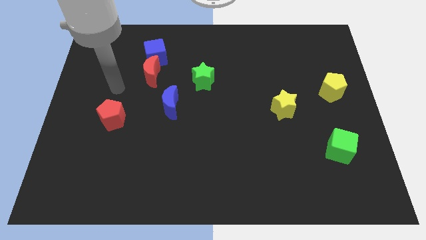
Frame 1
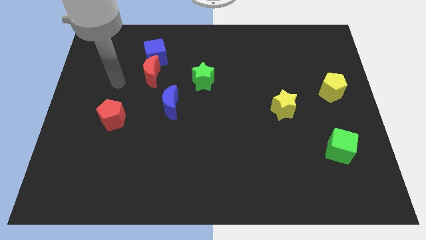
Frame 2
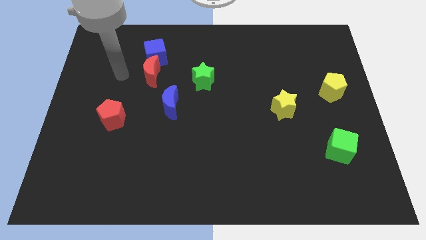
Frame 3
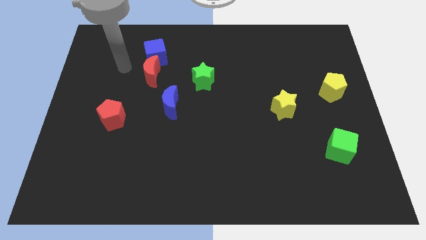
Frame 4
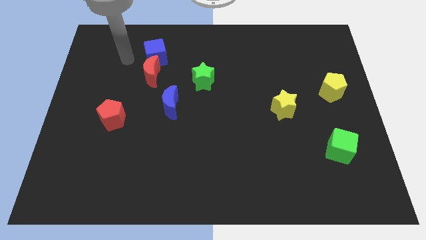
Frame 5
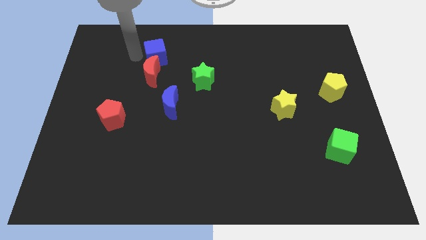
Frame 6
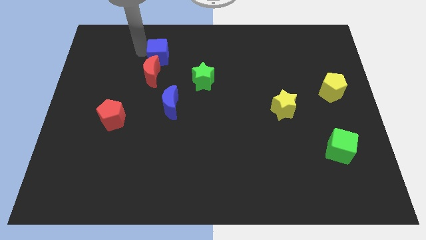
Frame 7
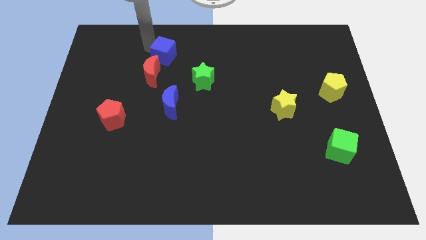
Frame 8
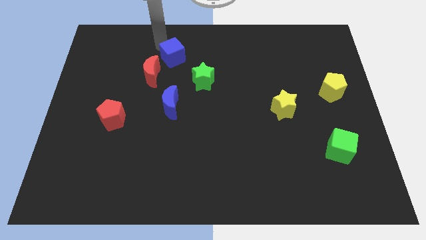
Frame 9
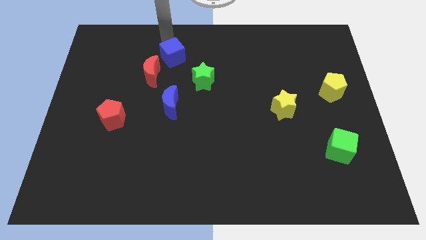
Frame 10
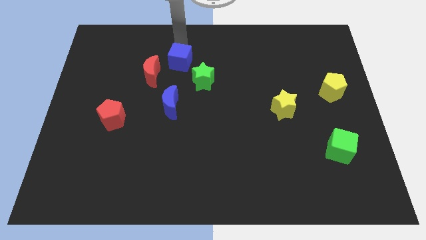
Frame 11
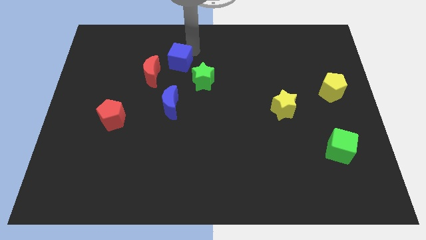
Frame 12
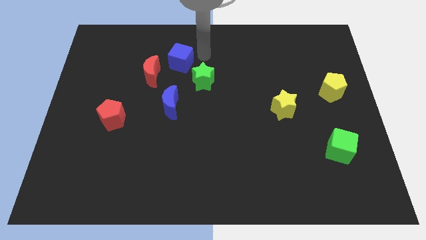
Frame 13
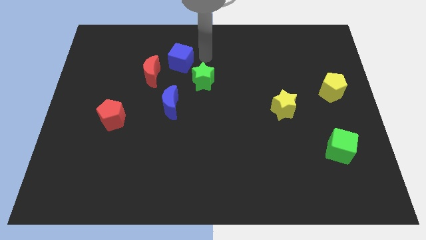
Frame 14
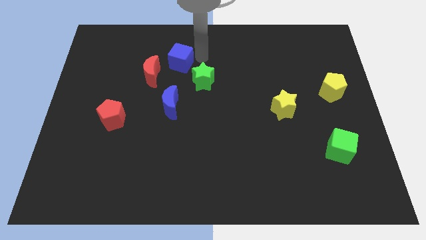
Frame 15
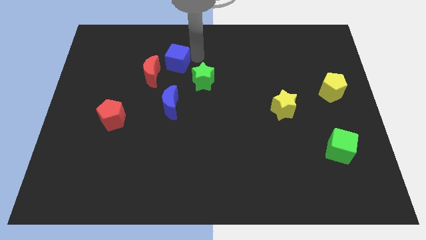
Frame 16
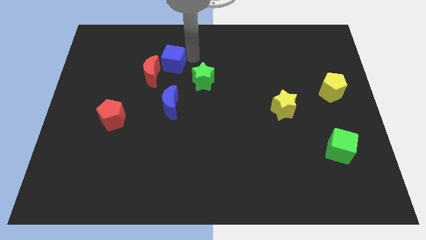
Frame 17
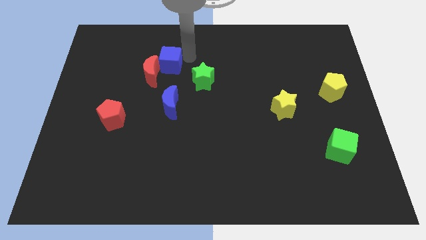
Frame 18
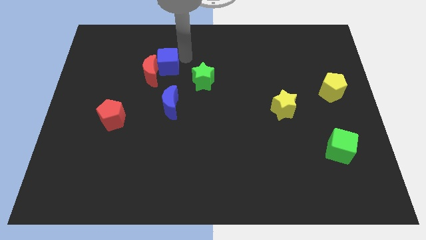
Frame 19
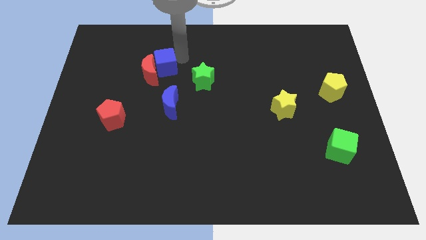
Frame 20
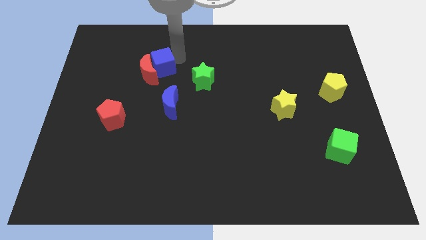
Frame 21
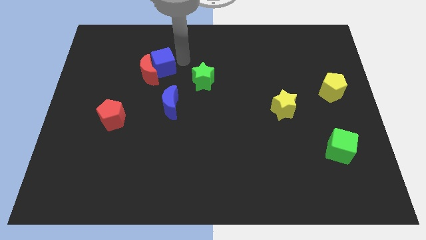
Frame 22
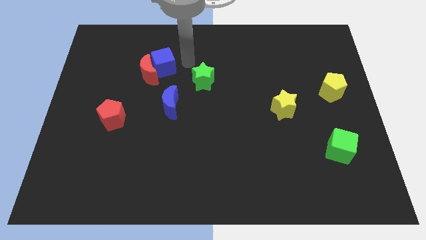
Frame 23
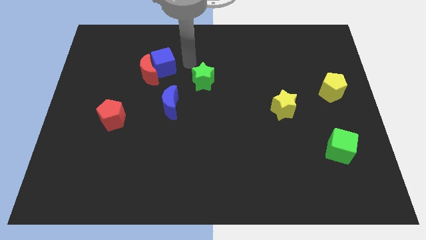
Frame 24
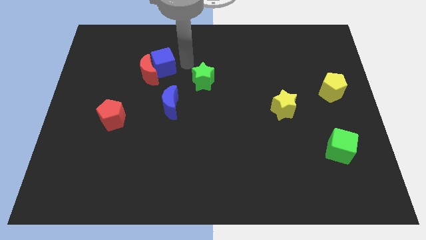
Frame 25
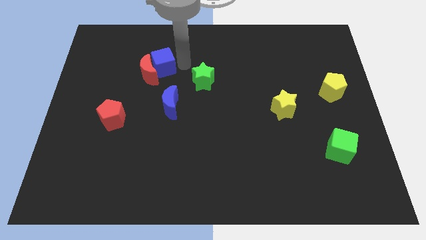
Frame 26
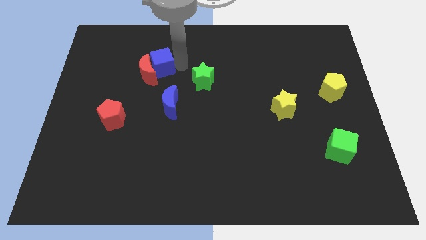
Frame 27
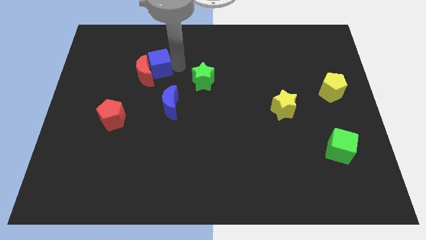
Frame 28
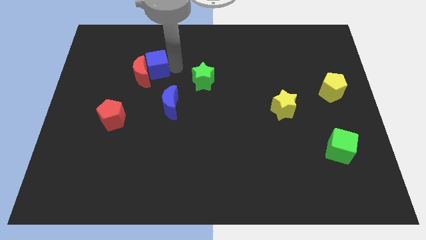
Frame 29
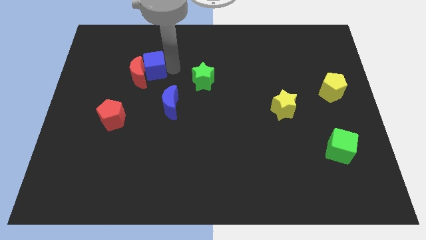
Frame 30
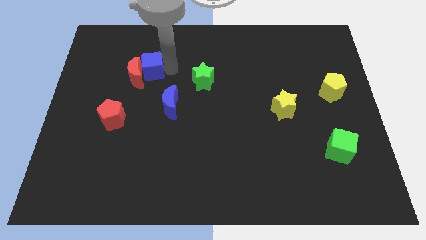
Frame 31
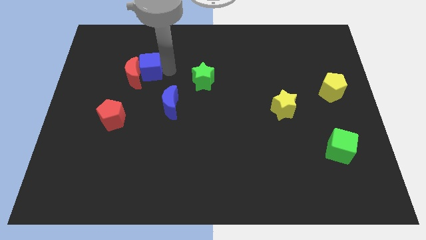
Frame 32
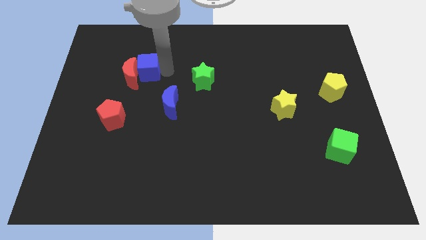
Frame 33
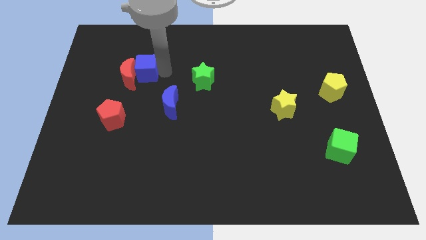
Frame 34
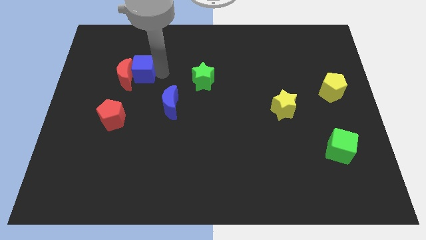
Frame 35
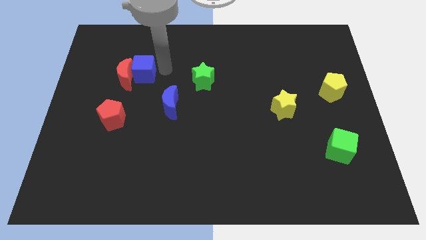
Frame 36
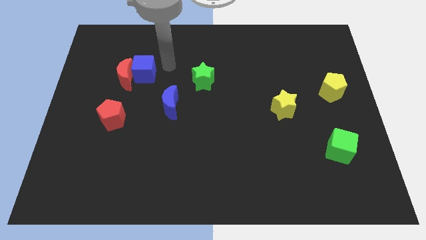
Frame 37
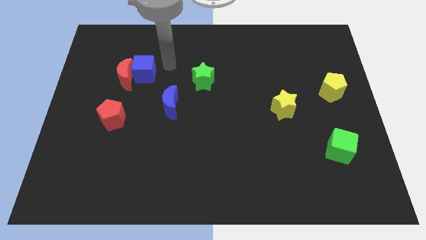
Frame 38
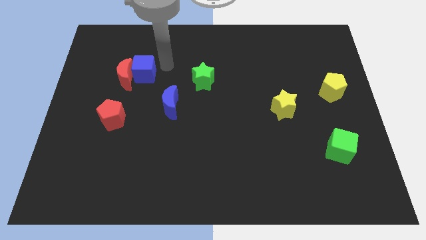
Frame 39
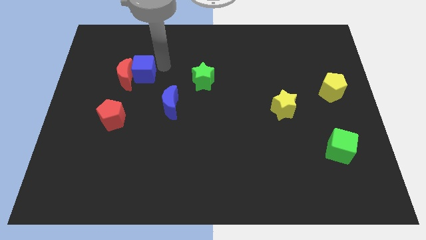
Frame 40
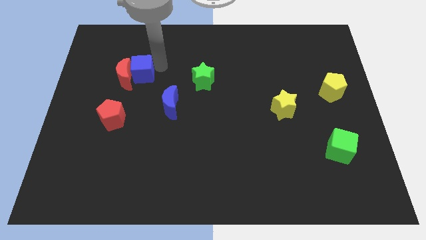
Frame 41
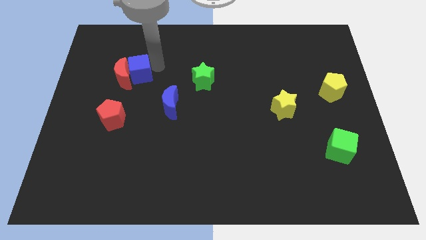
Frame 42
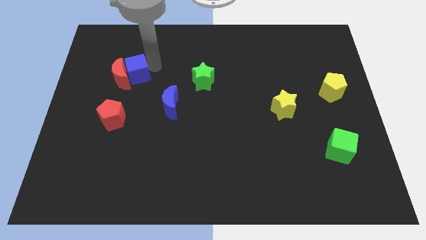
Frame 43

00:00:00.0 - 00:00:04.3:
slide the blue cube slightly downwards and to the left

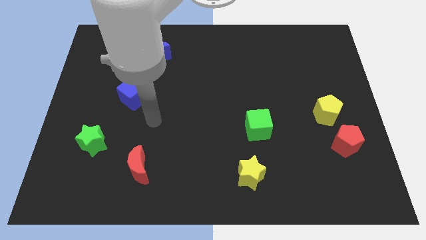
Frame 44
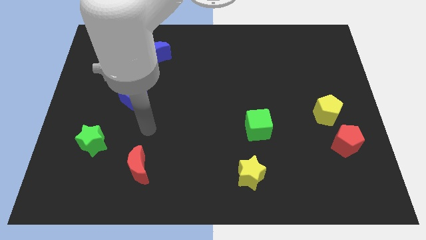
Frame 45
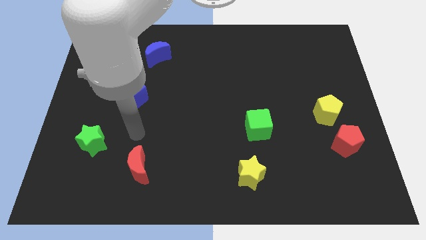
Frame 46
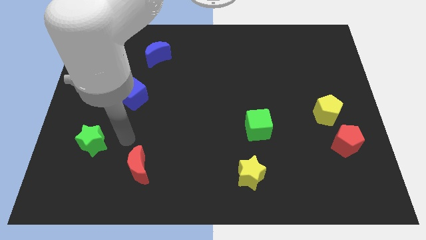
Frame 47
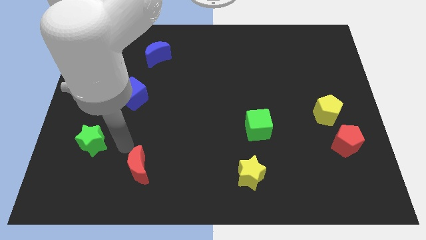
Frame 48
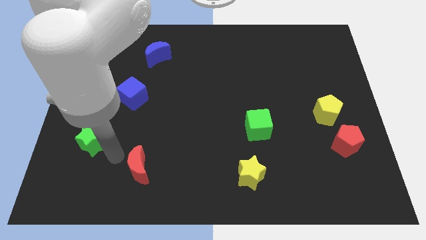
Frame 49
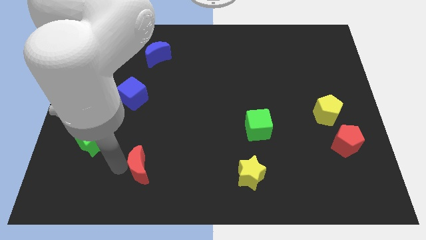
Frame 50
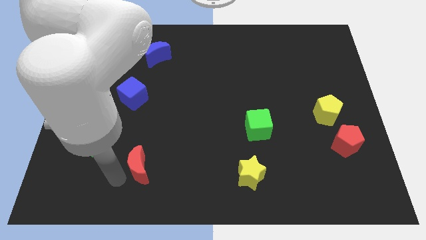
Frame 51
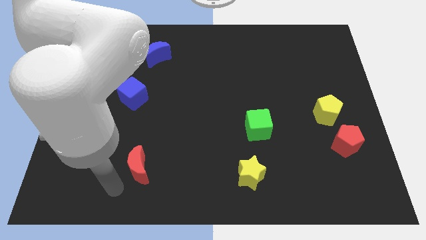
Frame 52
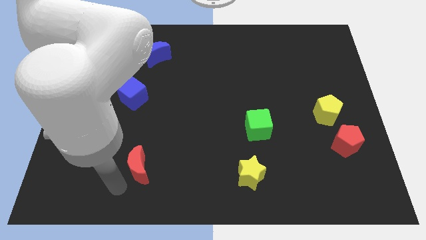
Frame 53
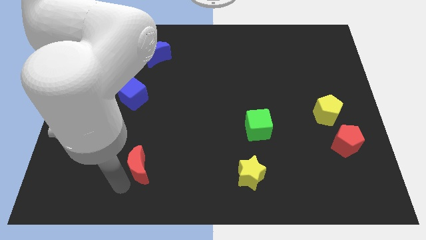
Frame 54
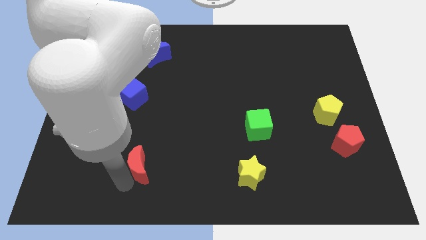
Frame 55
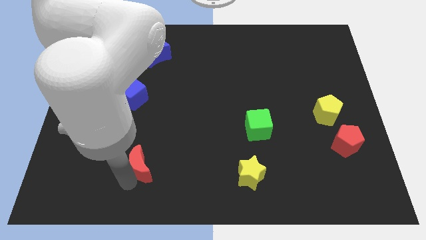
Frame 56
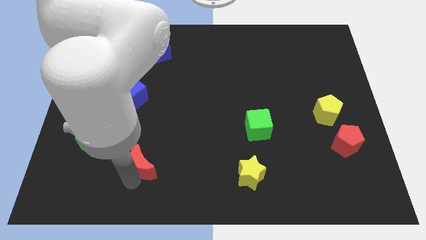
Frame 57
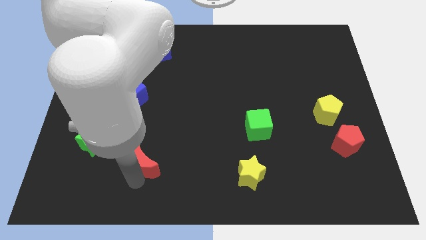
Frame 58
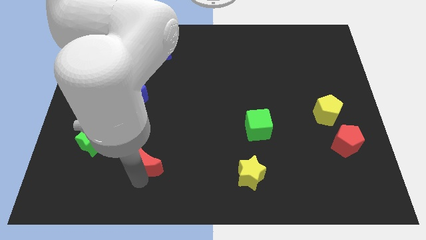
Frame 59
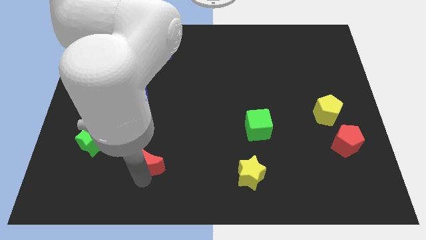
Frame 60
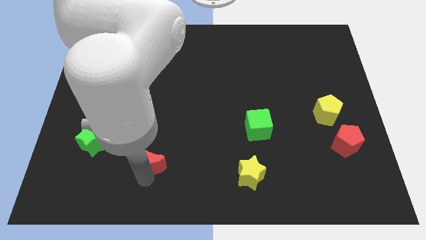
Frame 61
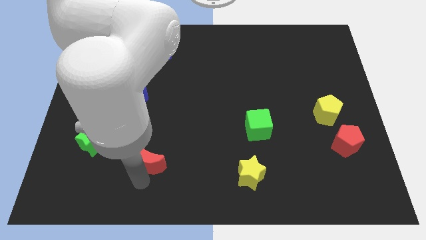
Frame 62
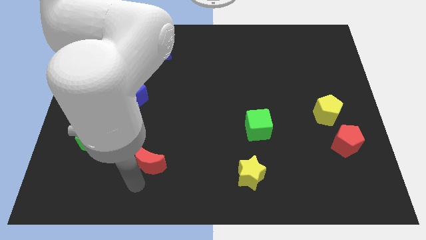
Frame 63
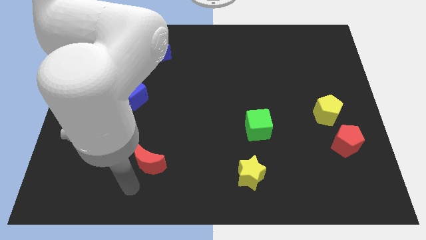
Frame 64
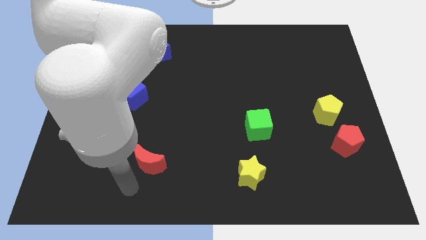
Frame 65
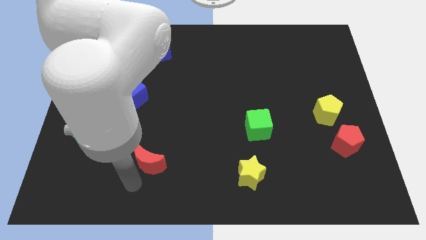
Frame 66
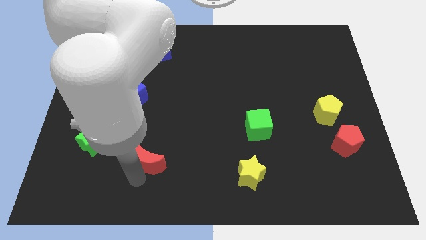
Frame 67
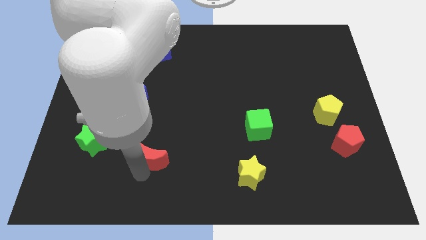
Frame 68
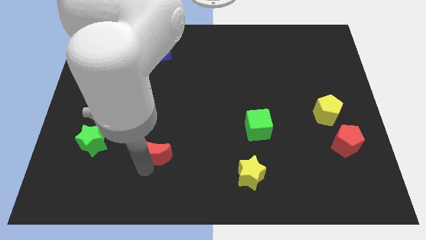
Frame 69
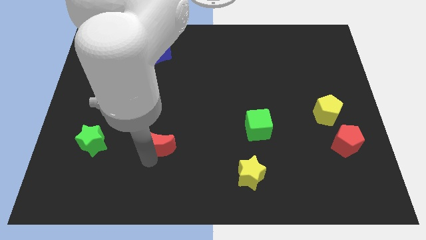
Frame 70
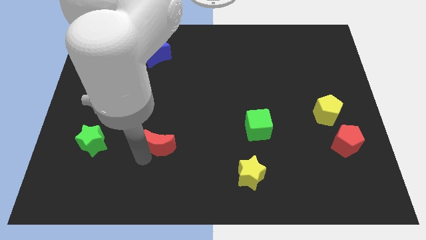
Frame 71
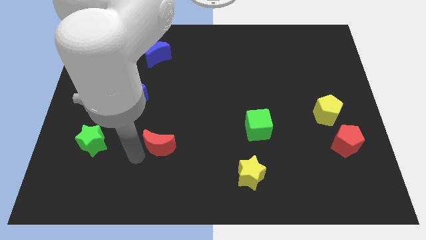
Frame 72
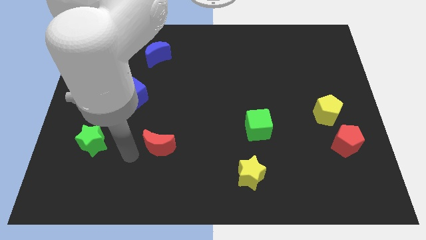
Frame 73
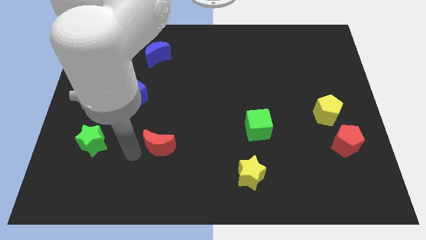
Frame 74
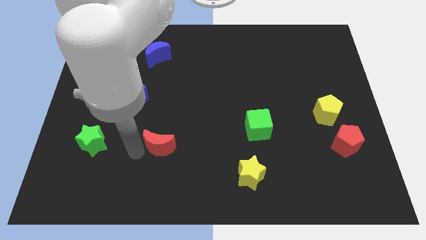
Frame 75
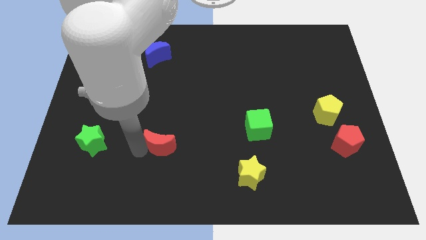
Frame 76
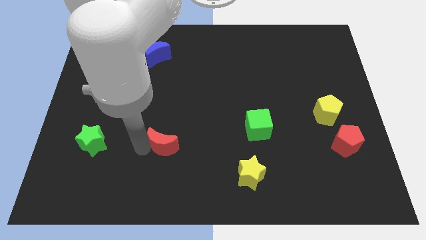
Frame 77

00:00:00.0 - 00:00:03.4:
move the red moon slightly upwards and right
